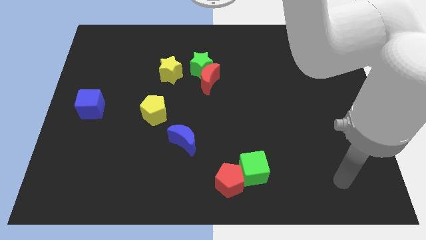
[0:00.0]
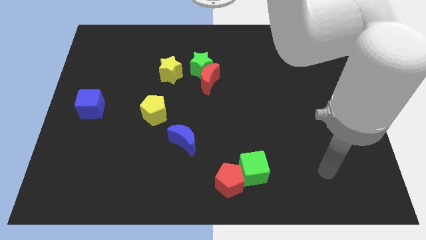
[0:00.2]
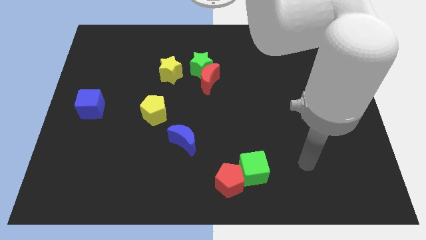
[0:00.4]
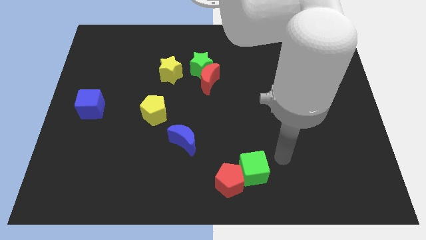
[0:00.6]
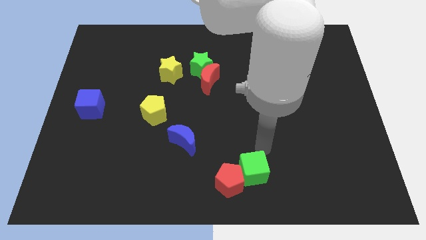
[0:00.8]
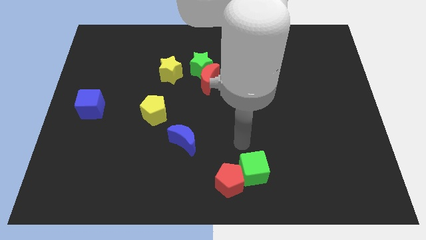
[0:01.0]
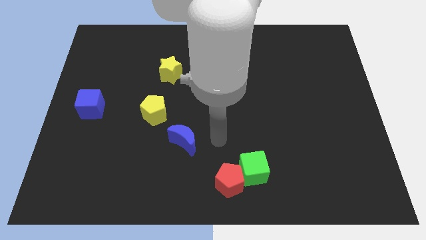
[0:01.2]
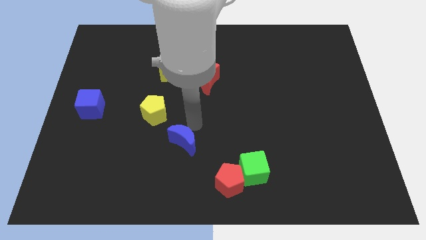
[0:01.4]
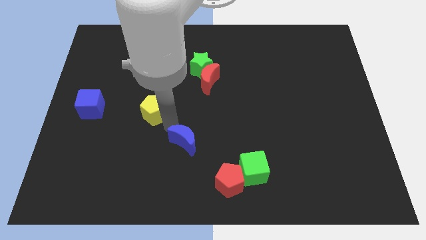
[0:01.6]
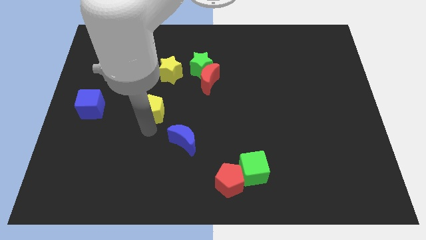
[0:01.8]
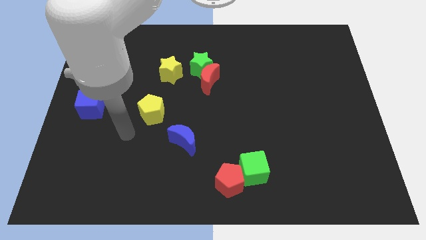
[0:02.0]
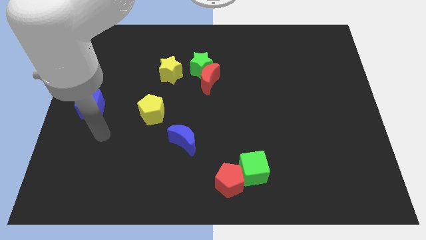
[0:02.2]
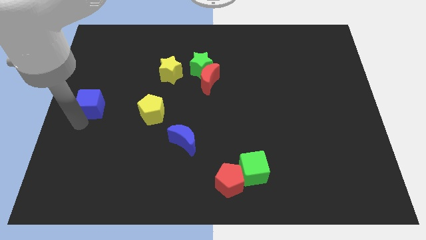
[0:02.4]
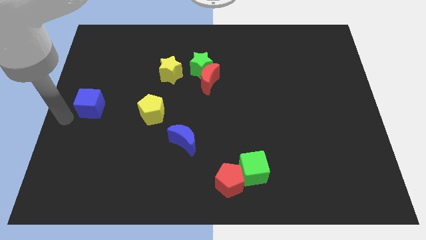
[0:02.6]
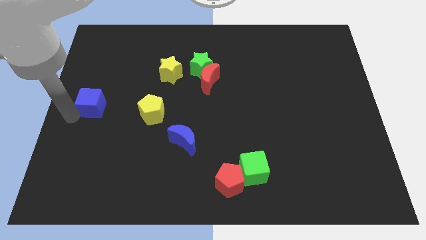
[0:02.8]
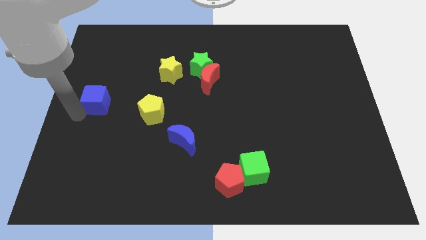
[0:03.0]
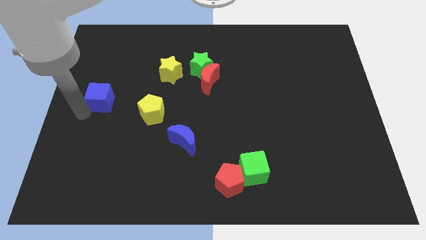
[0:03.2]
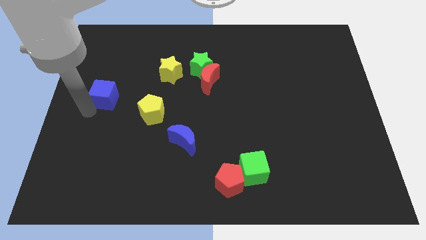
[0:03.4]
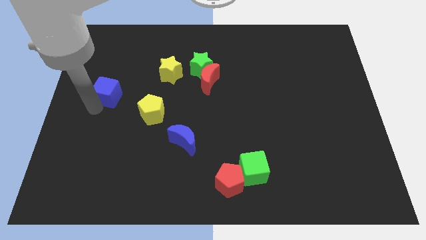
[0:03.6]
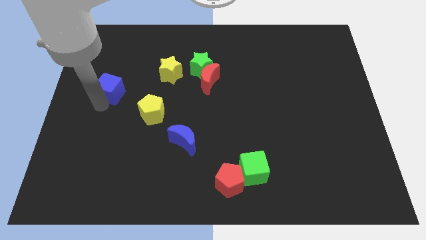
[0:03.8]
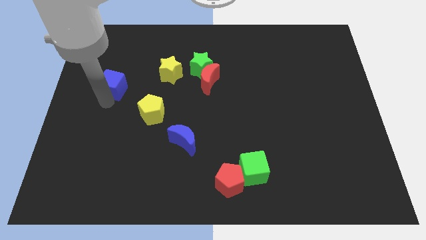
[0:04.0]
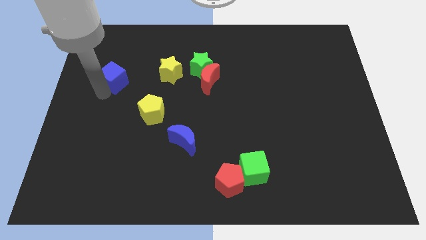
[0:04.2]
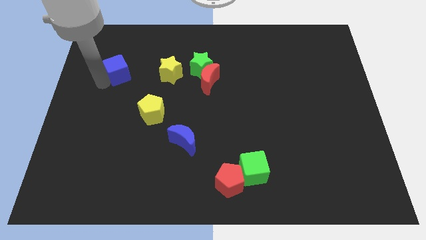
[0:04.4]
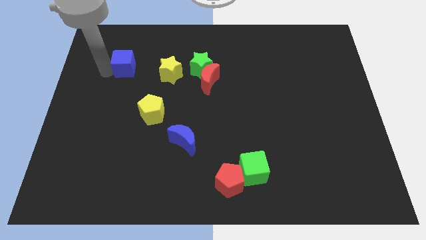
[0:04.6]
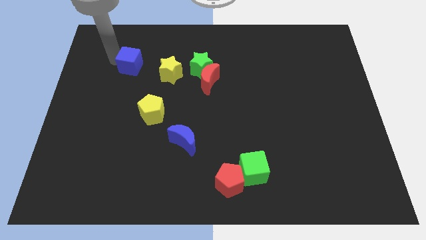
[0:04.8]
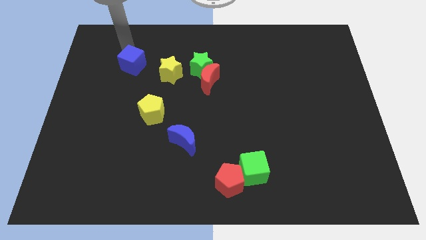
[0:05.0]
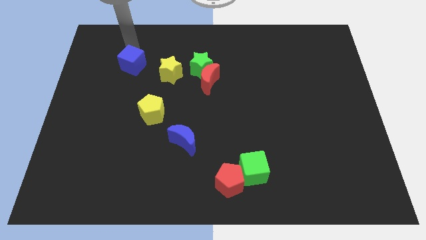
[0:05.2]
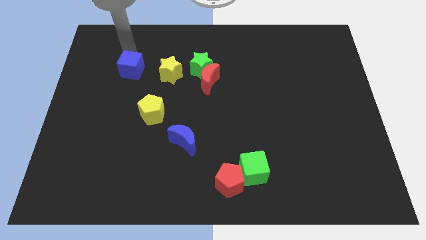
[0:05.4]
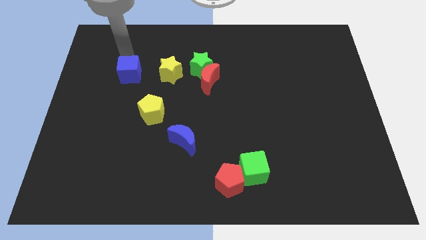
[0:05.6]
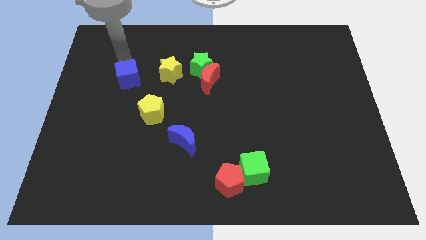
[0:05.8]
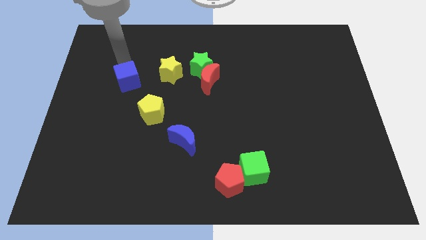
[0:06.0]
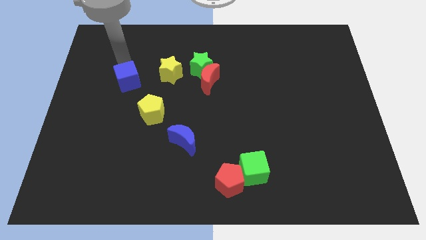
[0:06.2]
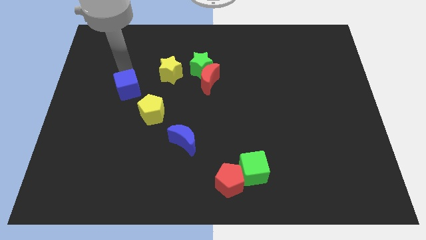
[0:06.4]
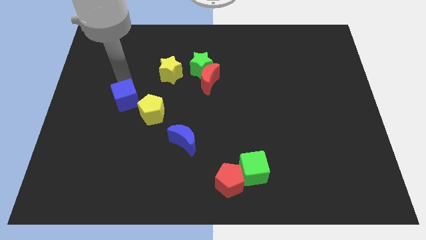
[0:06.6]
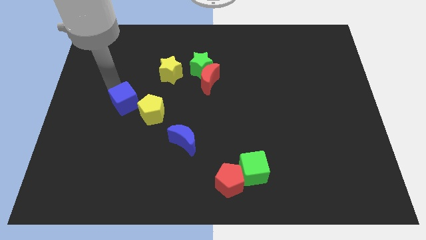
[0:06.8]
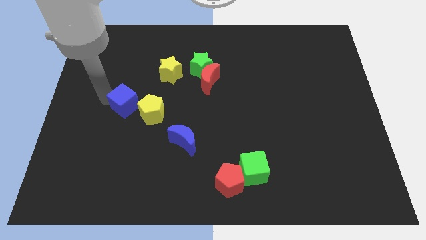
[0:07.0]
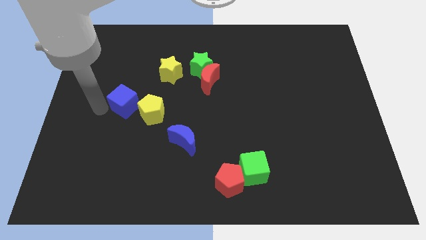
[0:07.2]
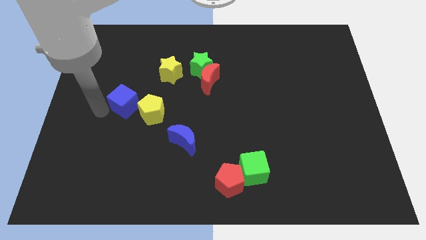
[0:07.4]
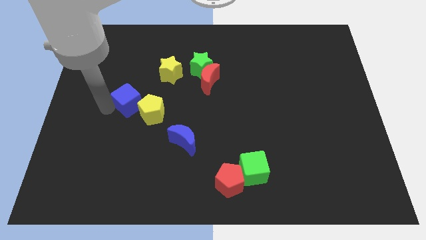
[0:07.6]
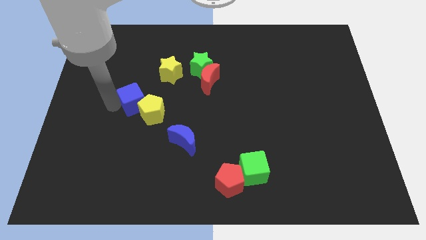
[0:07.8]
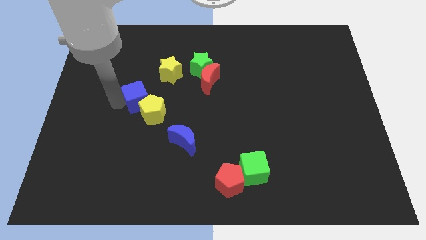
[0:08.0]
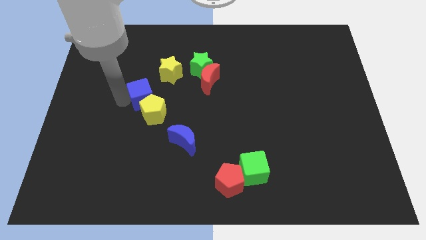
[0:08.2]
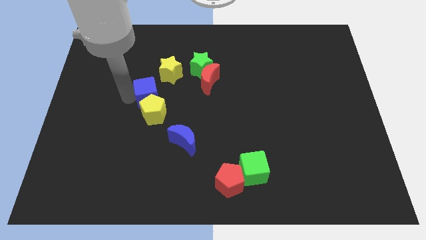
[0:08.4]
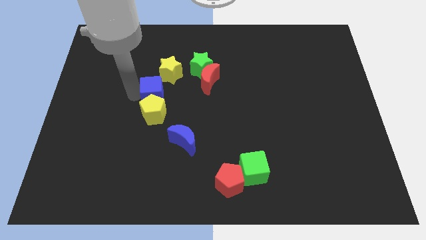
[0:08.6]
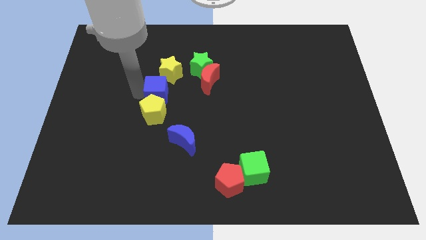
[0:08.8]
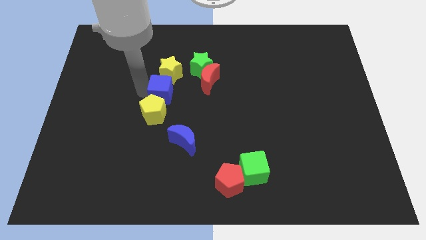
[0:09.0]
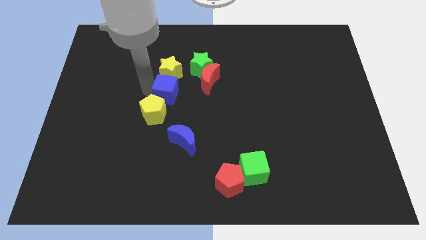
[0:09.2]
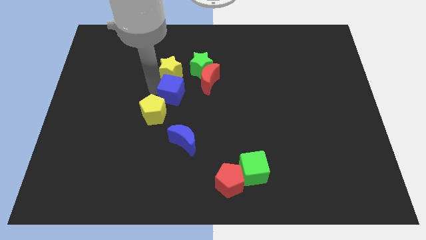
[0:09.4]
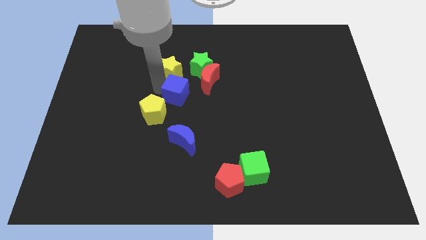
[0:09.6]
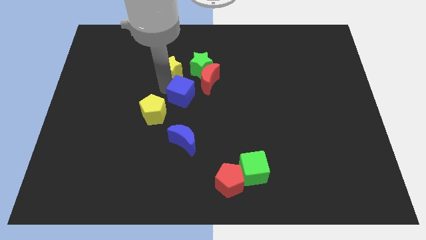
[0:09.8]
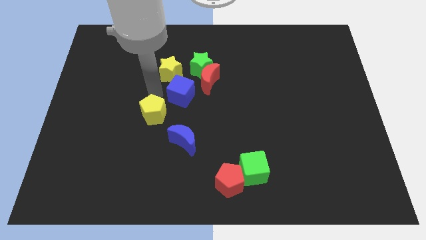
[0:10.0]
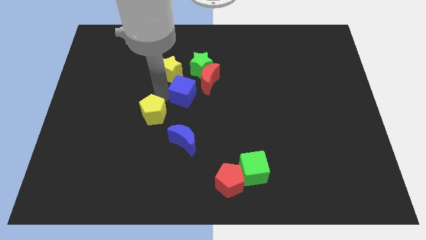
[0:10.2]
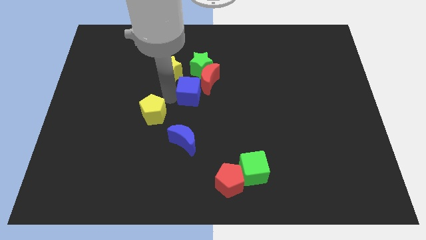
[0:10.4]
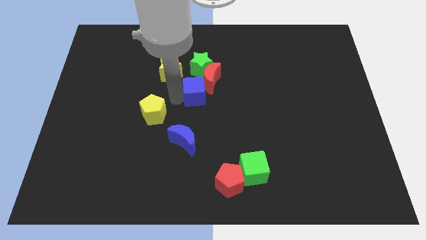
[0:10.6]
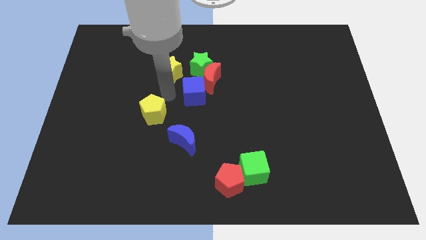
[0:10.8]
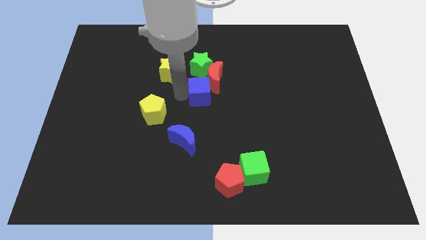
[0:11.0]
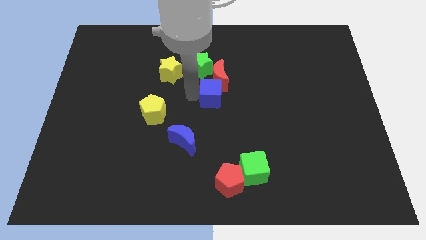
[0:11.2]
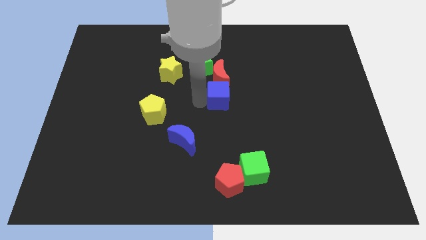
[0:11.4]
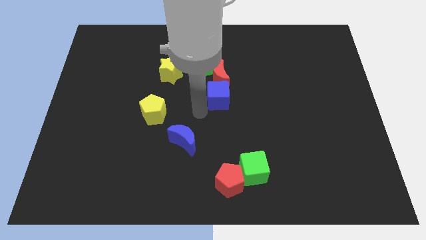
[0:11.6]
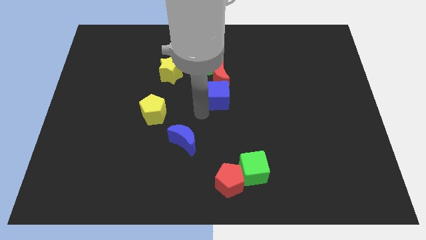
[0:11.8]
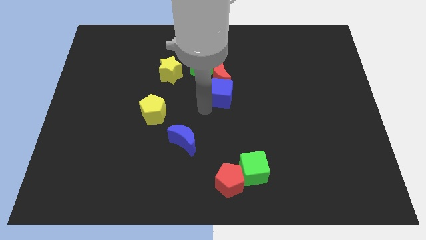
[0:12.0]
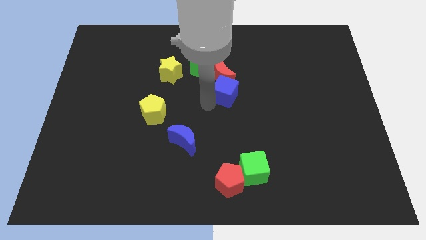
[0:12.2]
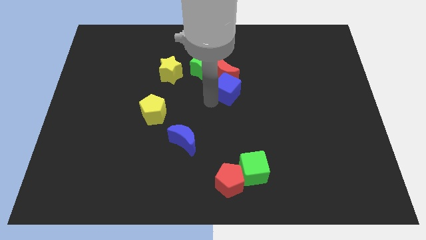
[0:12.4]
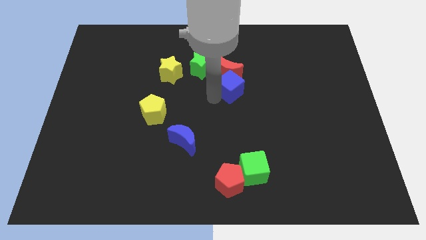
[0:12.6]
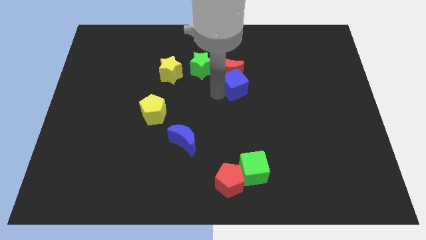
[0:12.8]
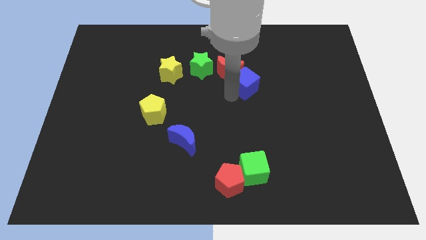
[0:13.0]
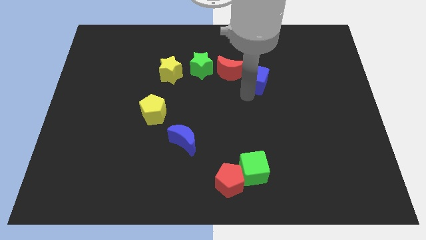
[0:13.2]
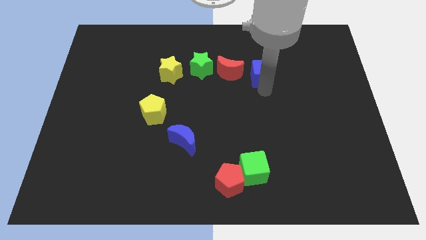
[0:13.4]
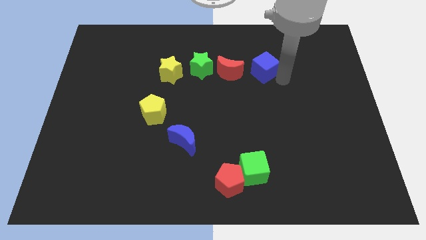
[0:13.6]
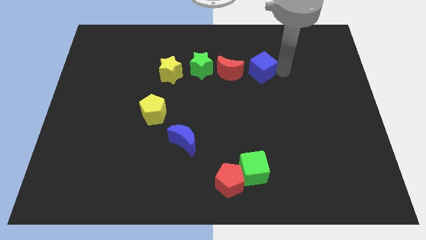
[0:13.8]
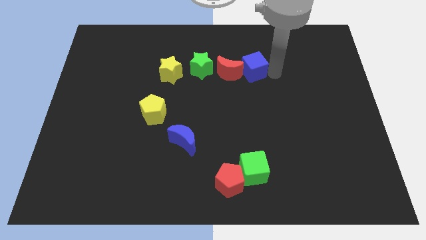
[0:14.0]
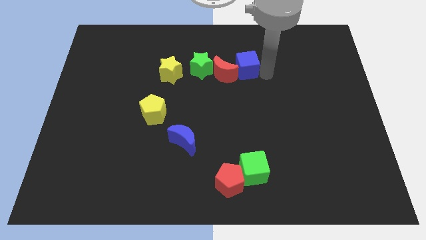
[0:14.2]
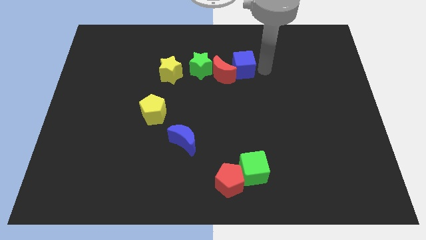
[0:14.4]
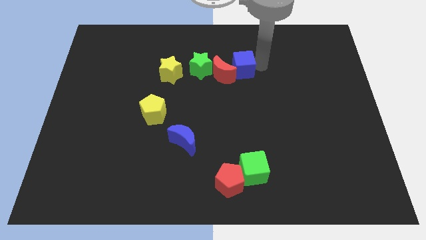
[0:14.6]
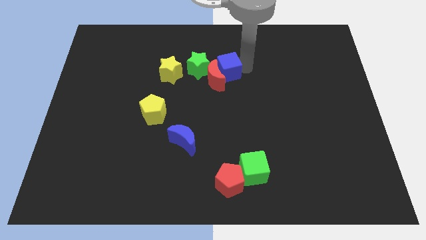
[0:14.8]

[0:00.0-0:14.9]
put the blue cube just right of the yellow star

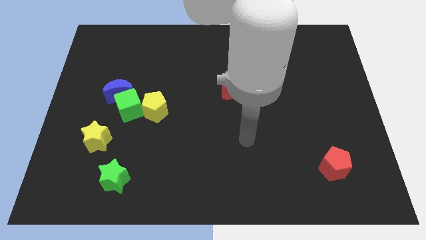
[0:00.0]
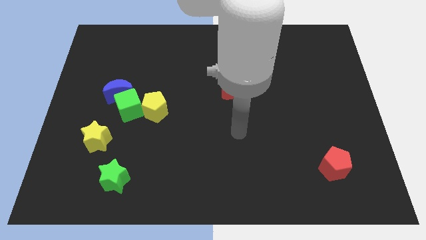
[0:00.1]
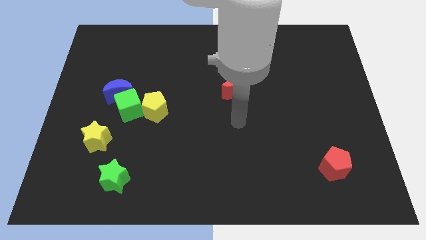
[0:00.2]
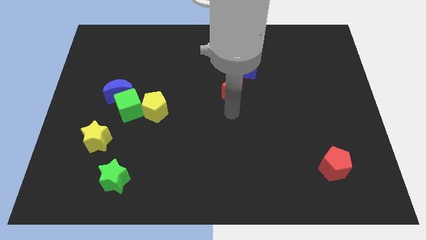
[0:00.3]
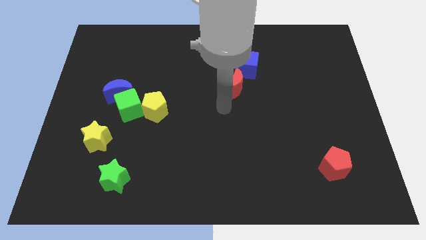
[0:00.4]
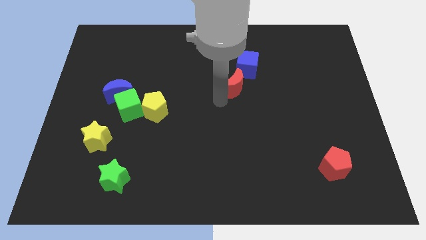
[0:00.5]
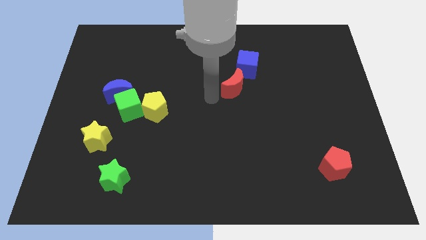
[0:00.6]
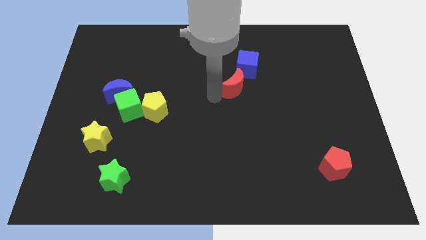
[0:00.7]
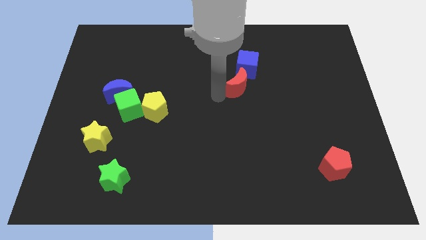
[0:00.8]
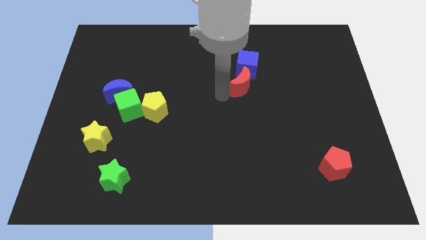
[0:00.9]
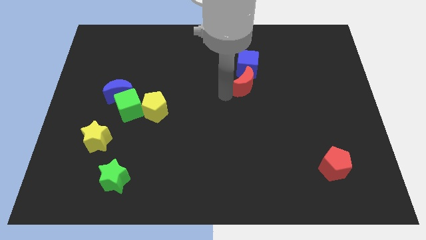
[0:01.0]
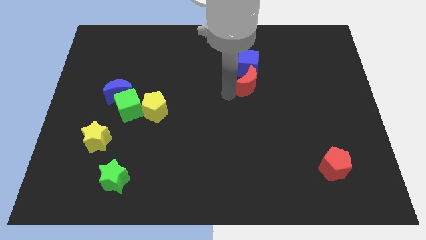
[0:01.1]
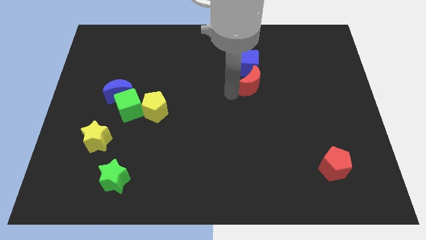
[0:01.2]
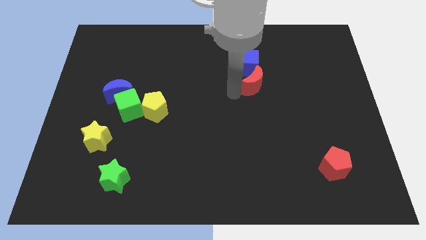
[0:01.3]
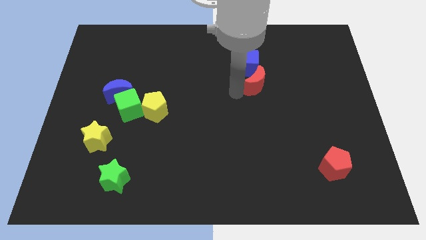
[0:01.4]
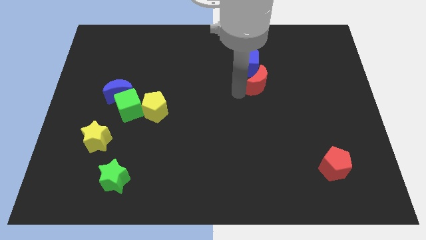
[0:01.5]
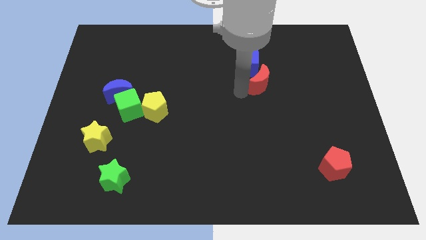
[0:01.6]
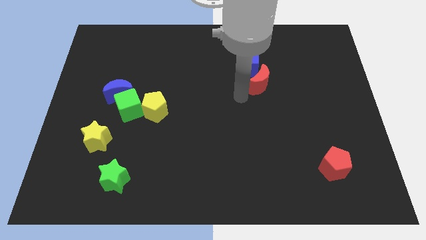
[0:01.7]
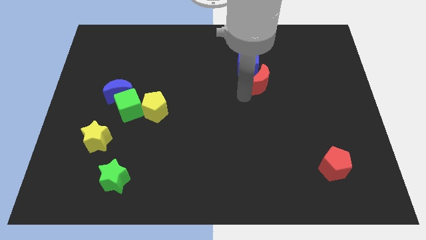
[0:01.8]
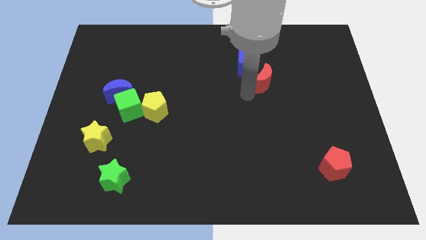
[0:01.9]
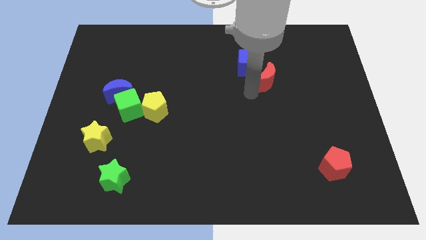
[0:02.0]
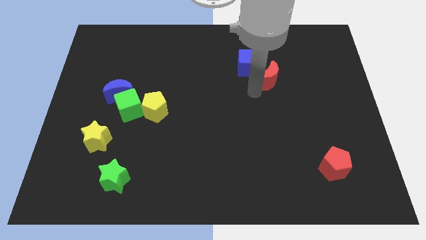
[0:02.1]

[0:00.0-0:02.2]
slide the red moon to the right side of the blue cube
